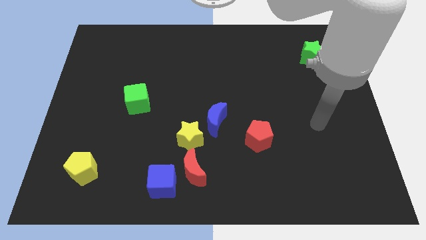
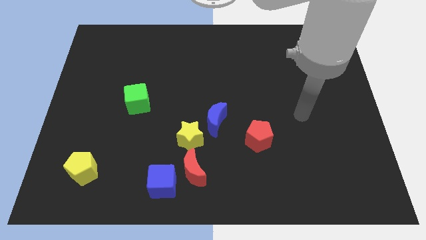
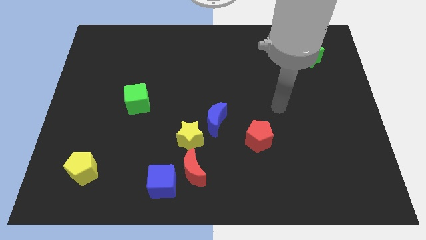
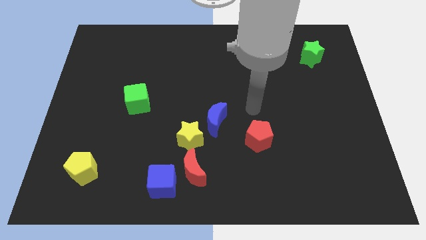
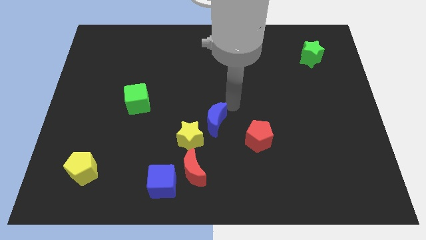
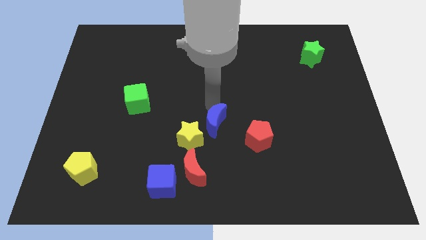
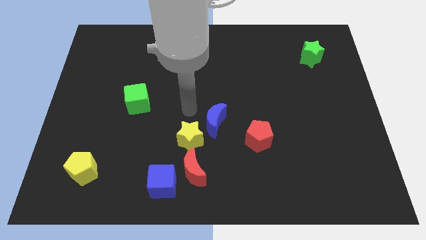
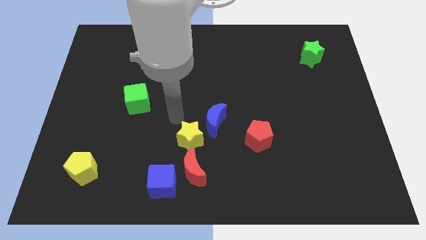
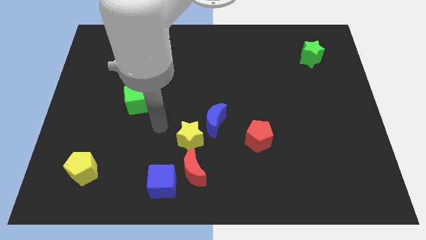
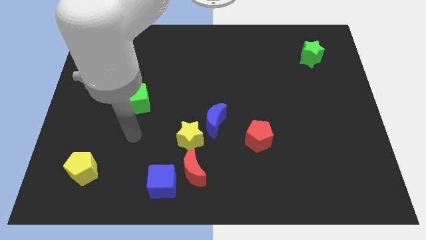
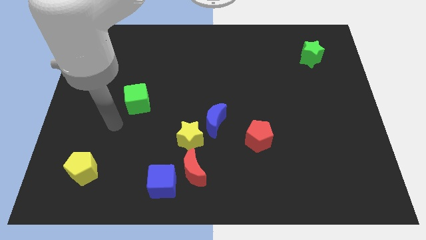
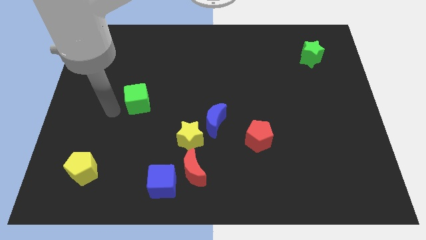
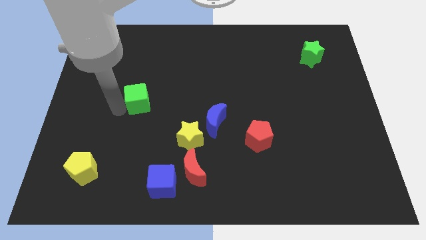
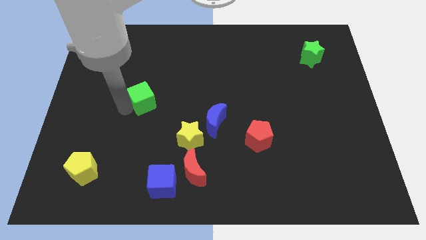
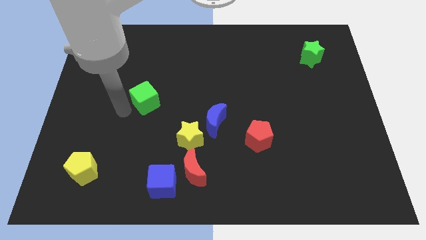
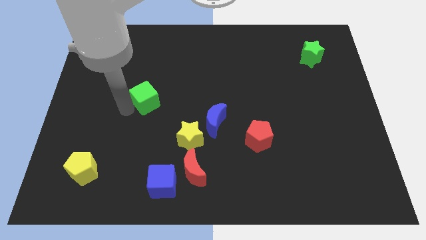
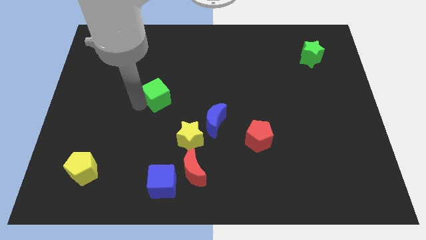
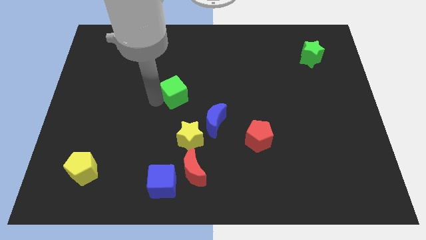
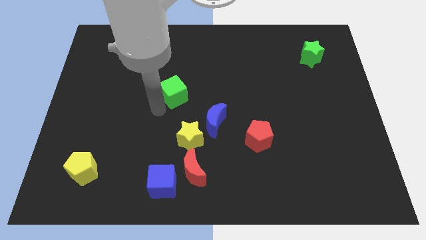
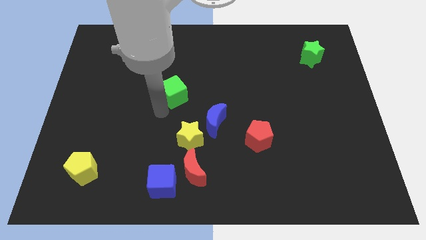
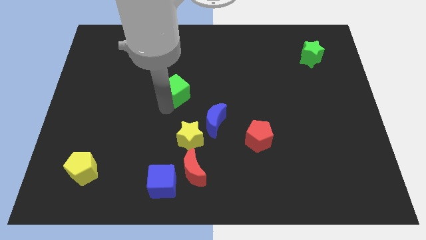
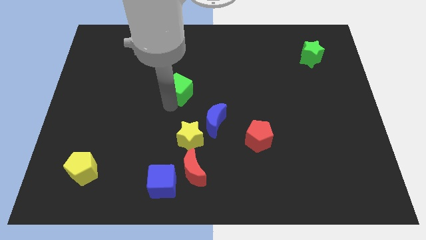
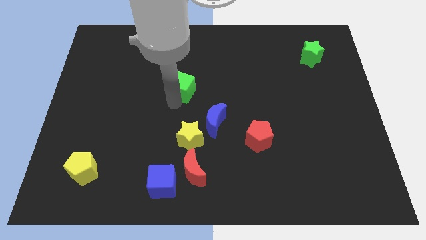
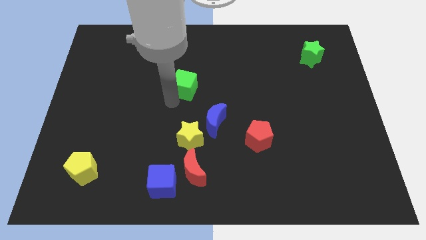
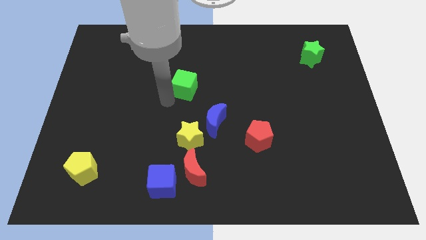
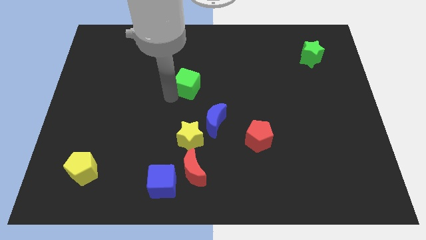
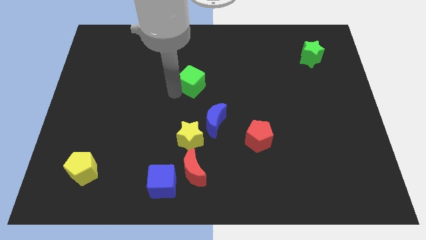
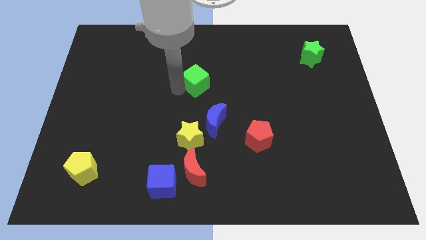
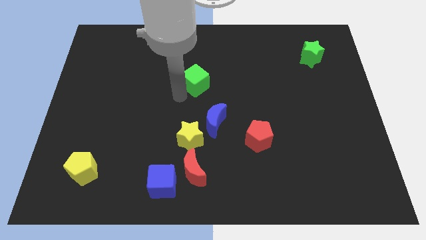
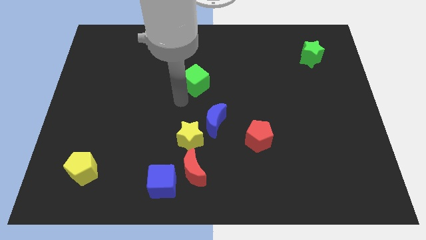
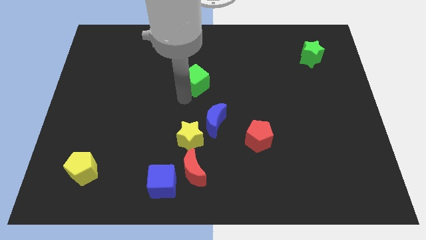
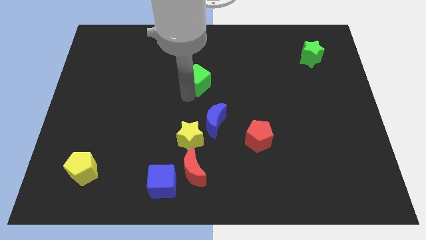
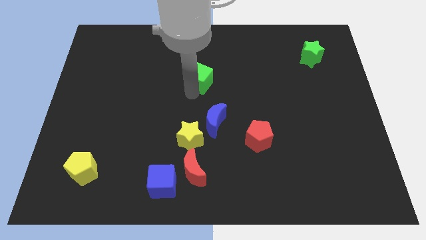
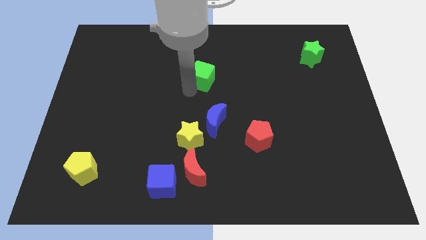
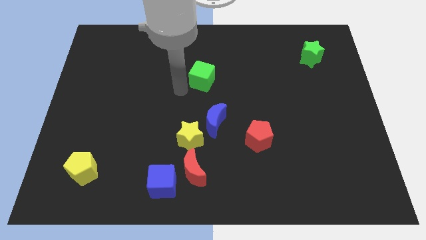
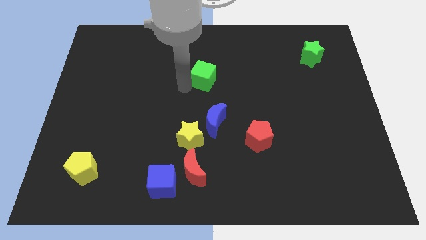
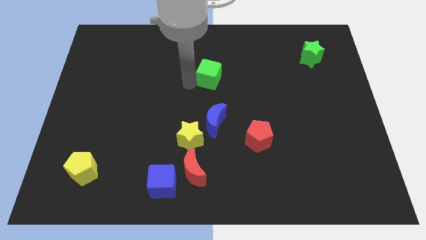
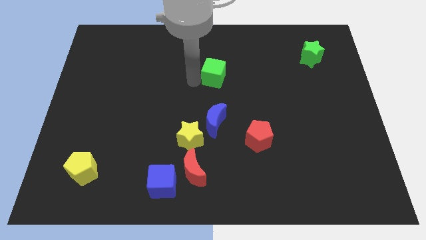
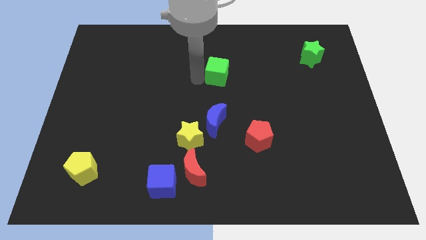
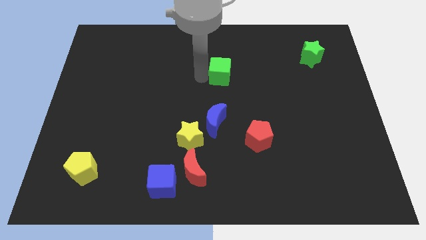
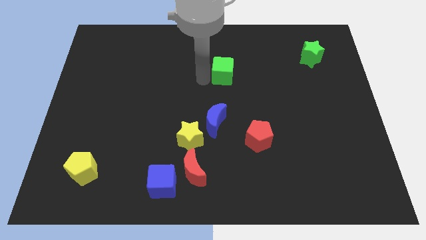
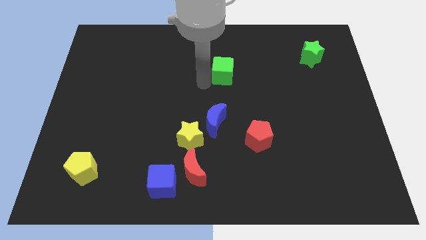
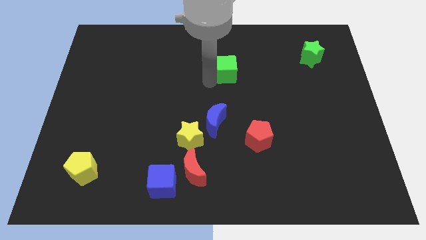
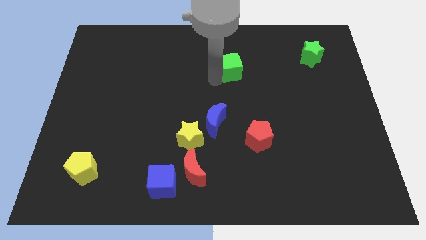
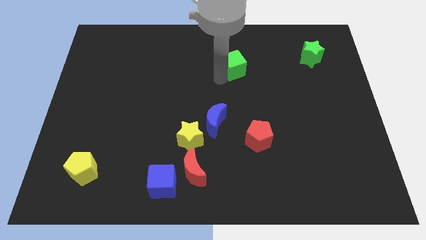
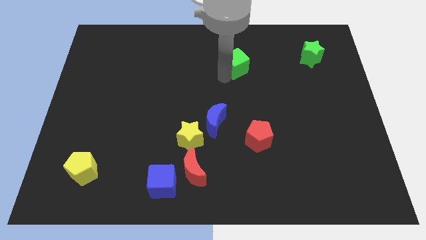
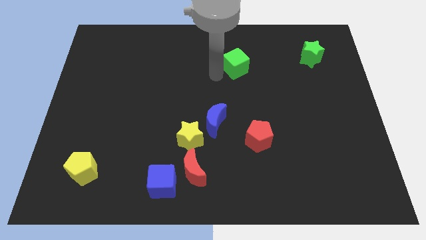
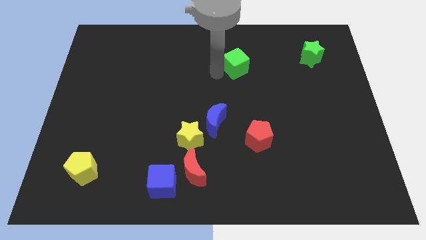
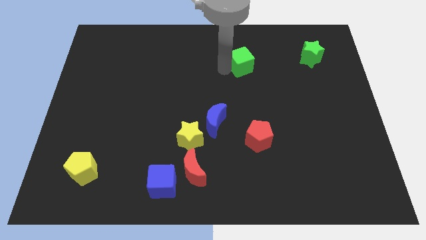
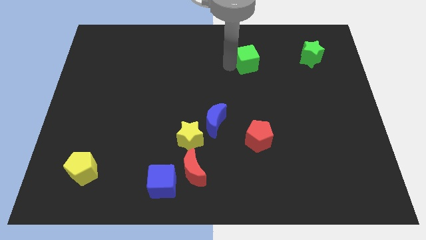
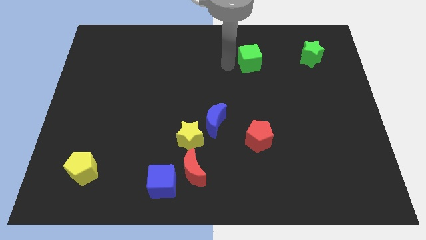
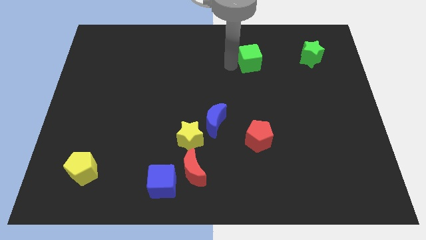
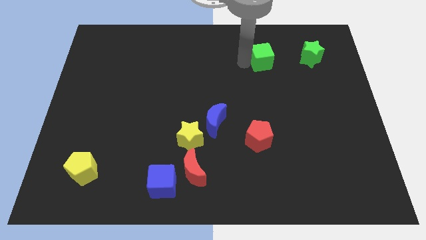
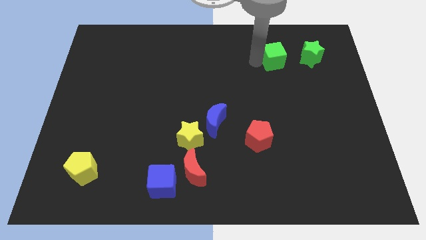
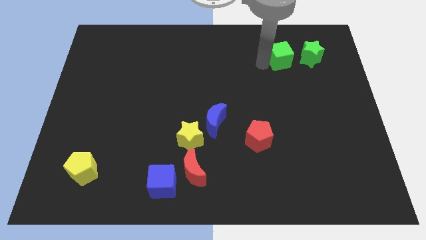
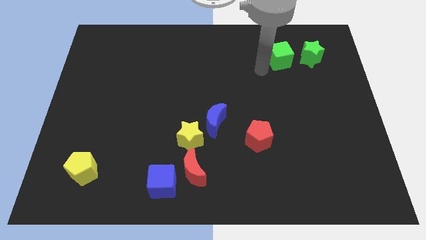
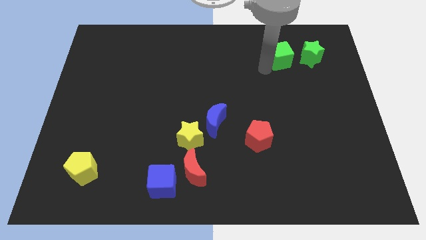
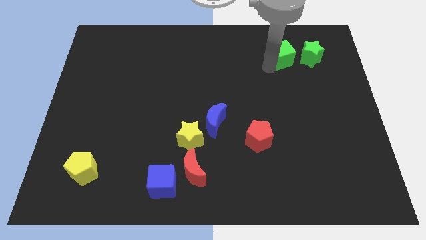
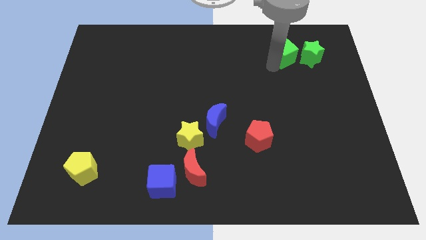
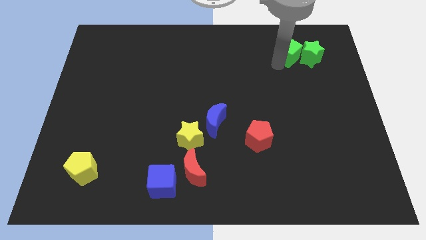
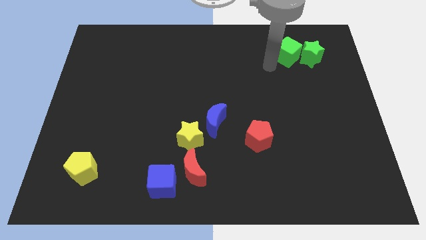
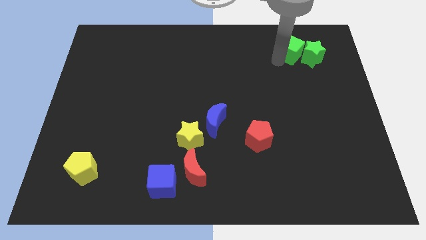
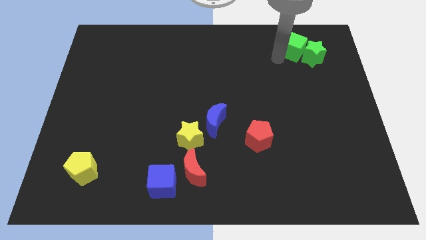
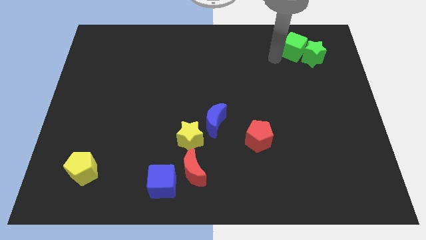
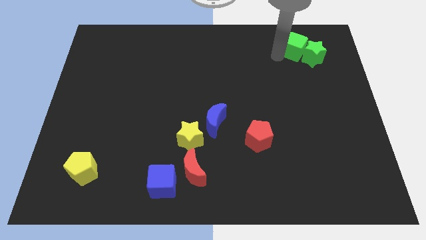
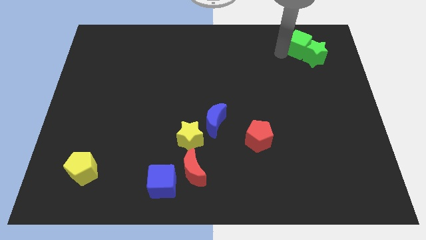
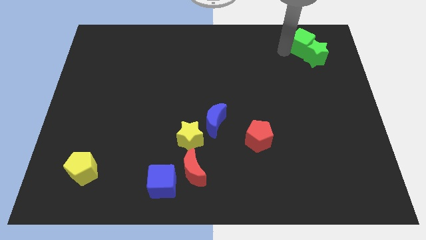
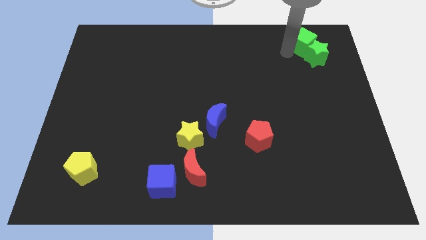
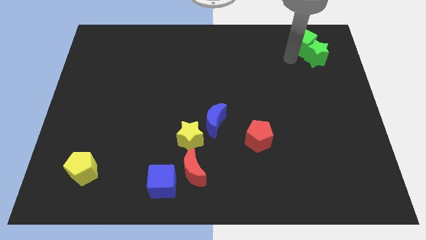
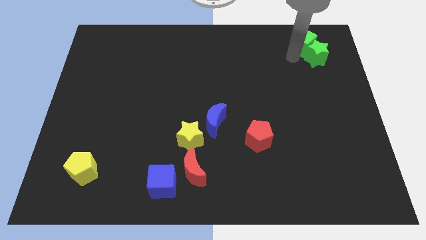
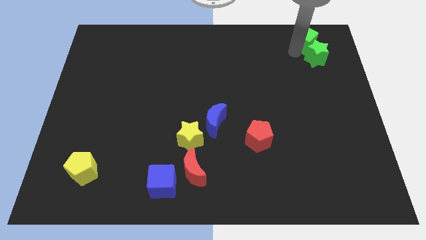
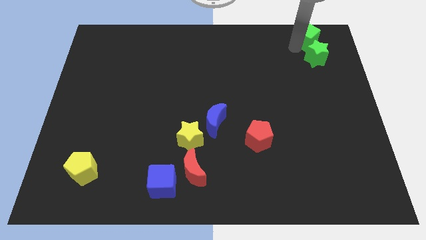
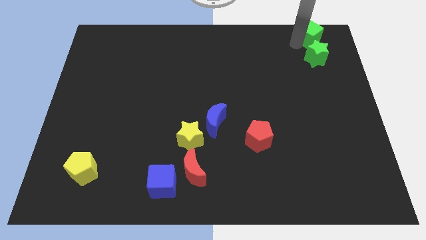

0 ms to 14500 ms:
slide the green cube to the top right
